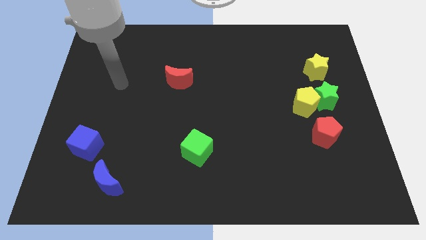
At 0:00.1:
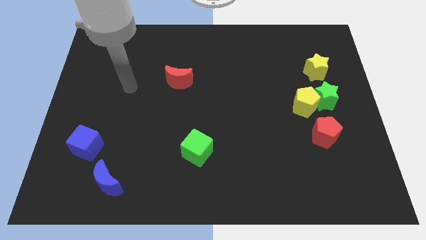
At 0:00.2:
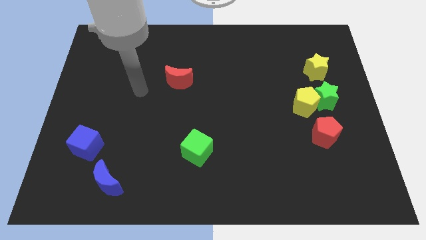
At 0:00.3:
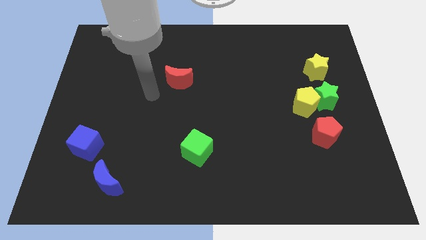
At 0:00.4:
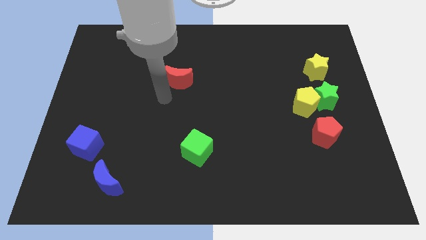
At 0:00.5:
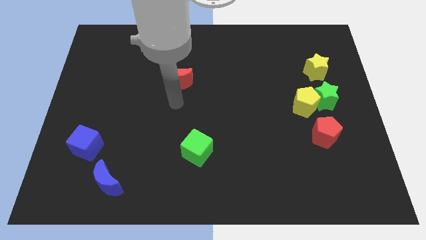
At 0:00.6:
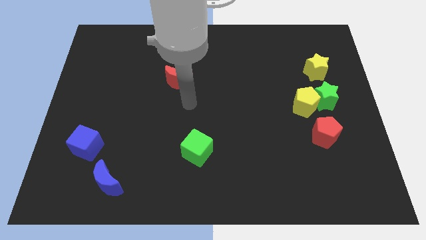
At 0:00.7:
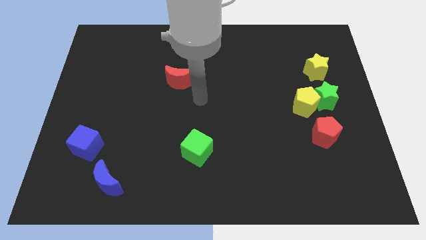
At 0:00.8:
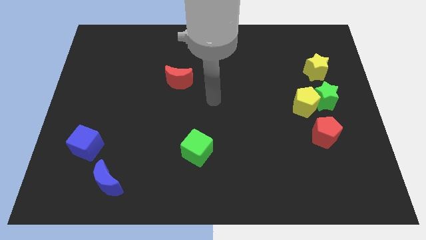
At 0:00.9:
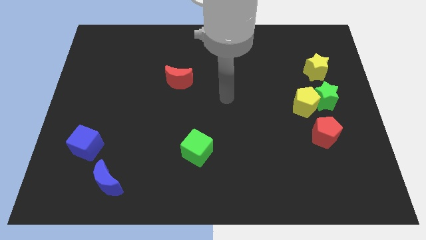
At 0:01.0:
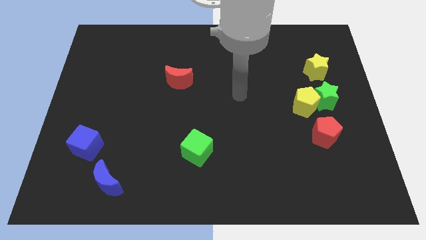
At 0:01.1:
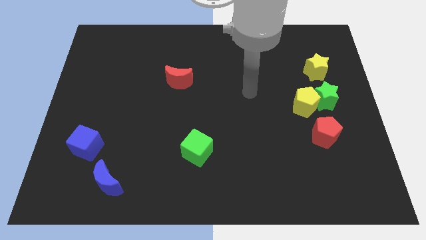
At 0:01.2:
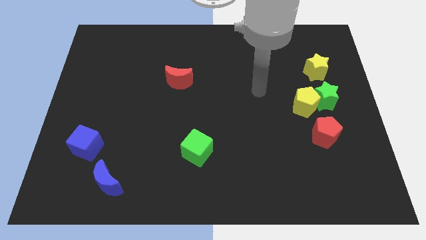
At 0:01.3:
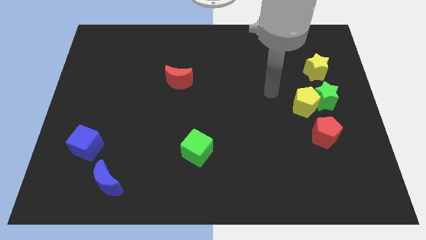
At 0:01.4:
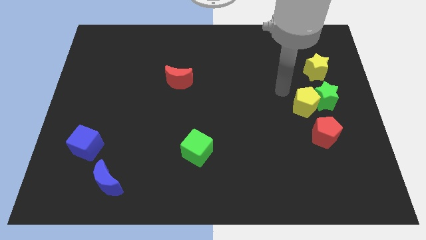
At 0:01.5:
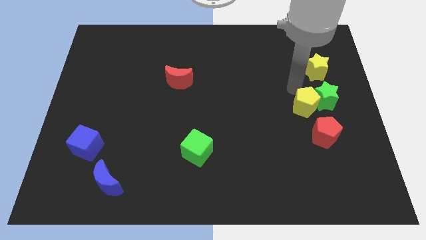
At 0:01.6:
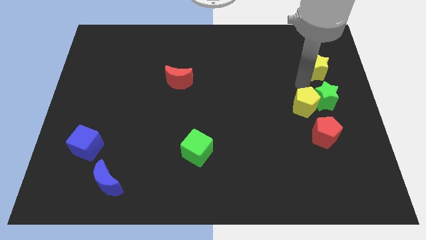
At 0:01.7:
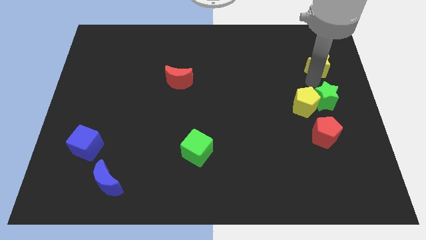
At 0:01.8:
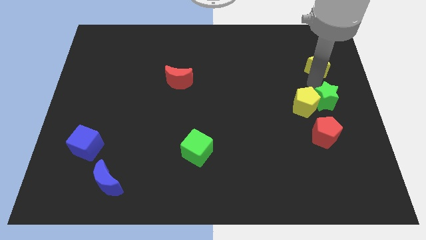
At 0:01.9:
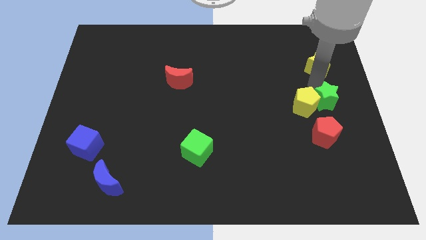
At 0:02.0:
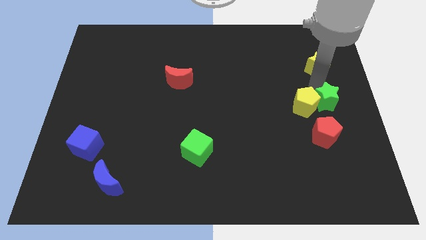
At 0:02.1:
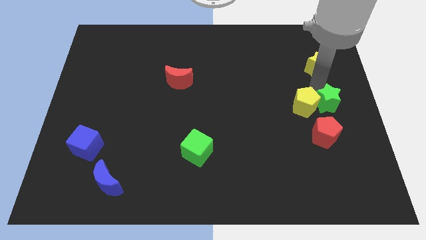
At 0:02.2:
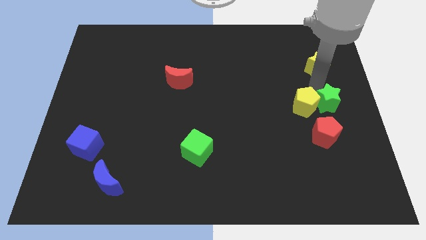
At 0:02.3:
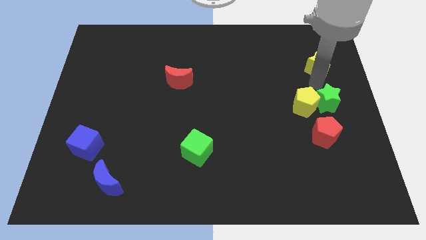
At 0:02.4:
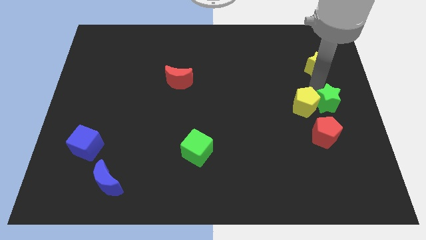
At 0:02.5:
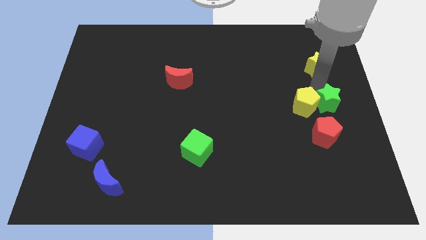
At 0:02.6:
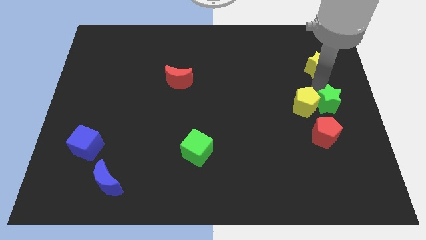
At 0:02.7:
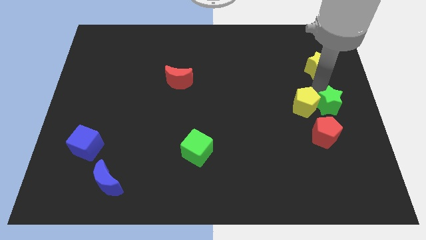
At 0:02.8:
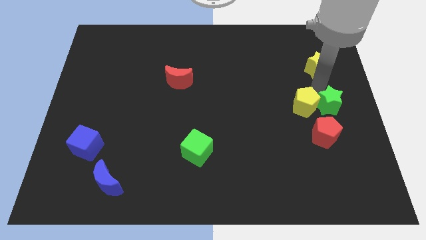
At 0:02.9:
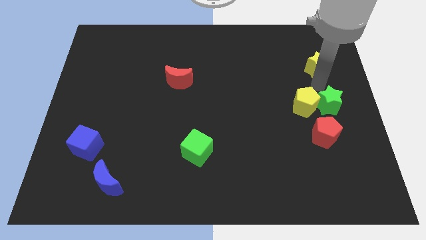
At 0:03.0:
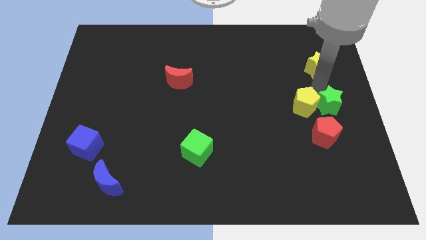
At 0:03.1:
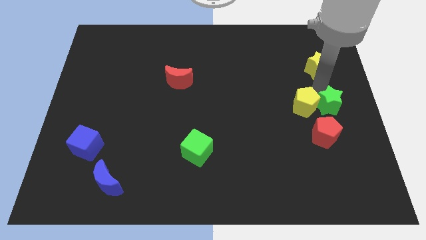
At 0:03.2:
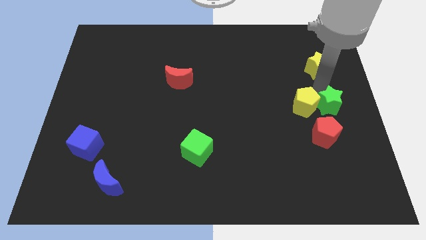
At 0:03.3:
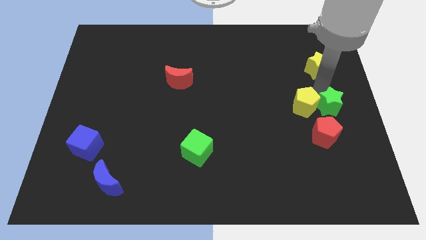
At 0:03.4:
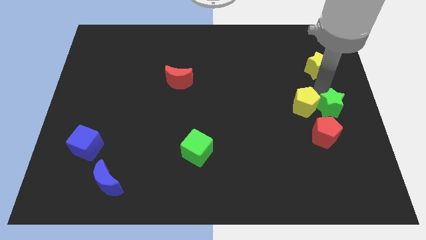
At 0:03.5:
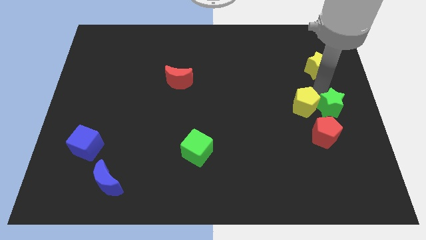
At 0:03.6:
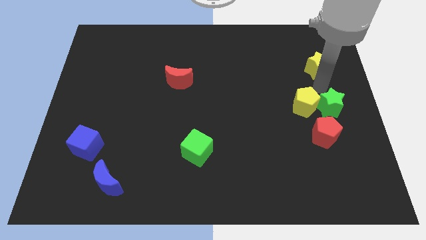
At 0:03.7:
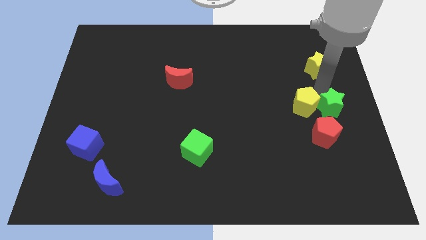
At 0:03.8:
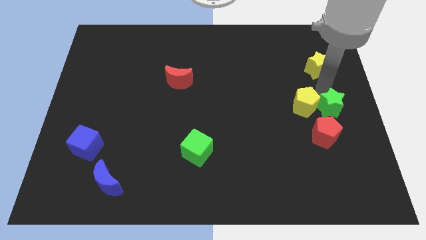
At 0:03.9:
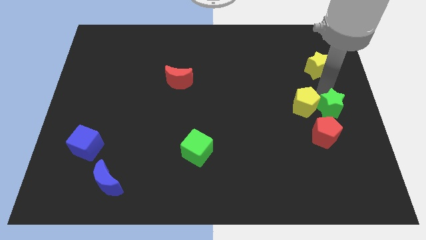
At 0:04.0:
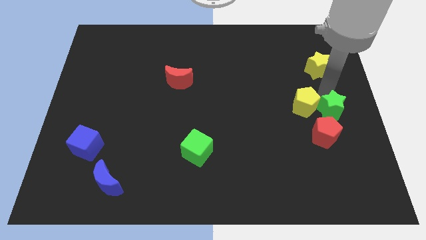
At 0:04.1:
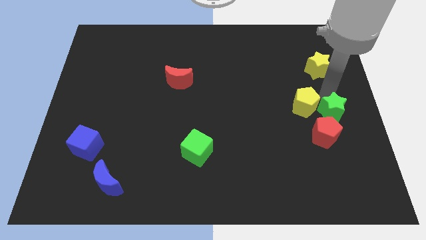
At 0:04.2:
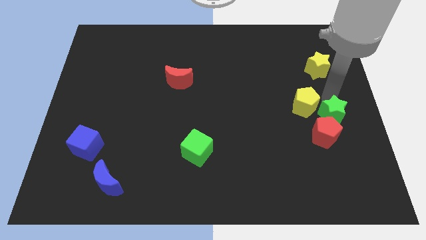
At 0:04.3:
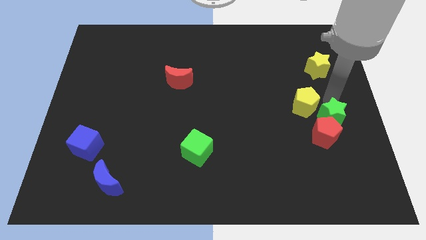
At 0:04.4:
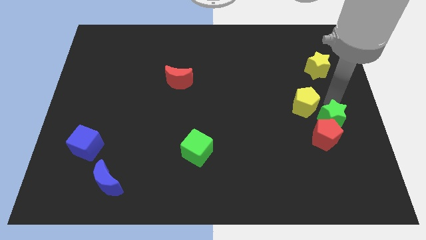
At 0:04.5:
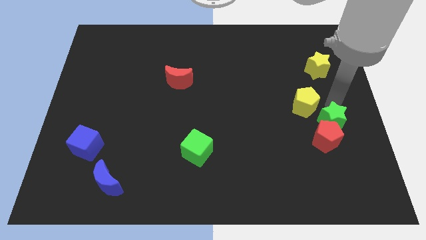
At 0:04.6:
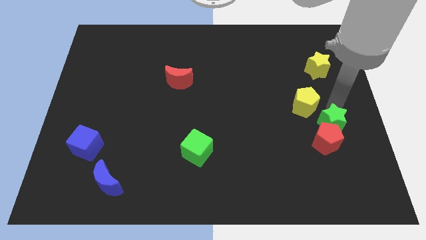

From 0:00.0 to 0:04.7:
push the green star down somewhat

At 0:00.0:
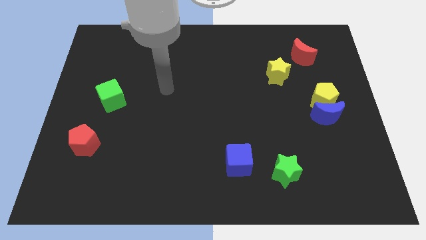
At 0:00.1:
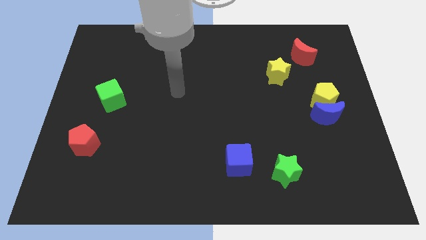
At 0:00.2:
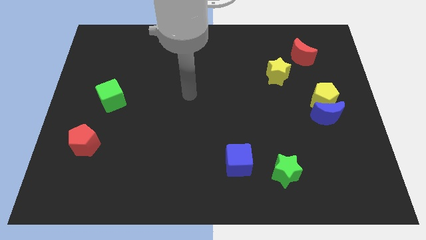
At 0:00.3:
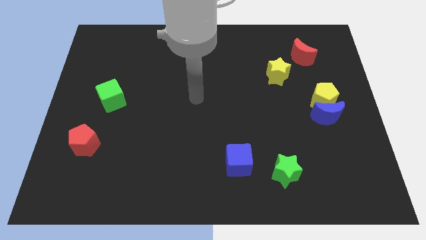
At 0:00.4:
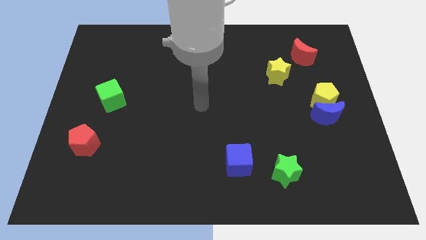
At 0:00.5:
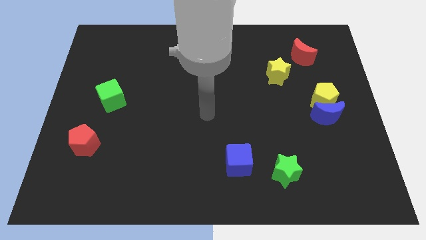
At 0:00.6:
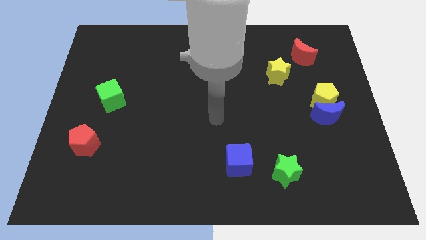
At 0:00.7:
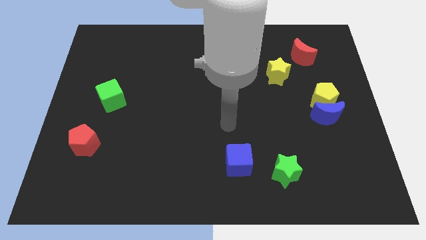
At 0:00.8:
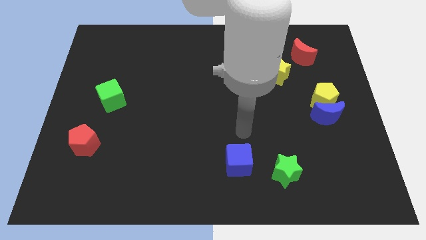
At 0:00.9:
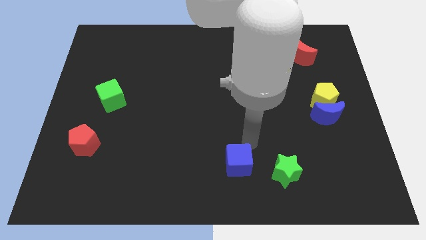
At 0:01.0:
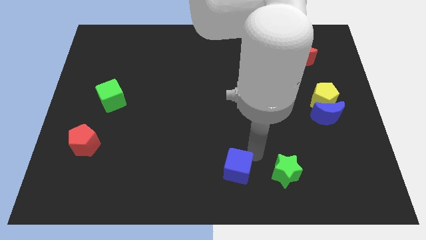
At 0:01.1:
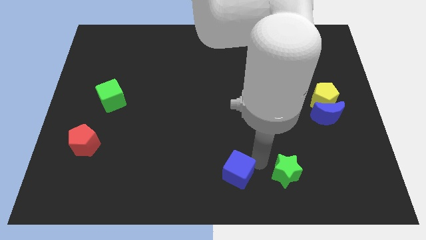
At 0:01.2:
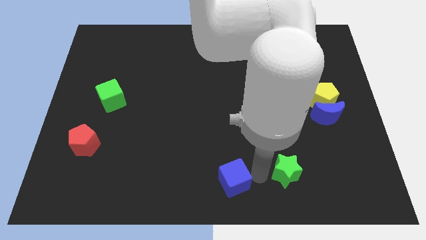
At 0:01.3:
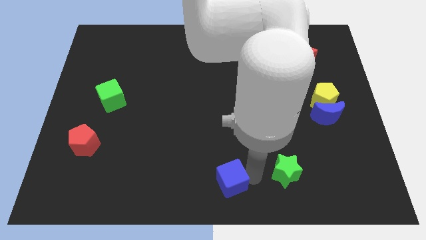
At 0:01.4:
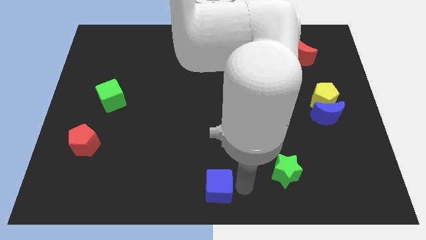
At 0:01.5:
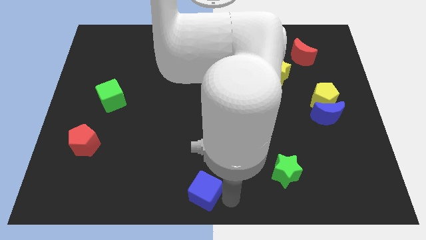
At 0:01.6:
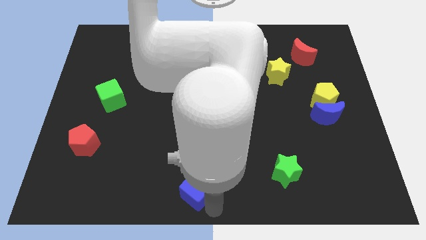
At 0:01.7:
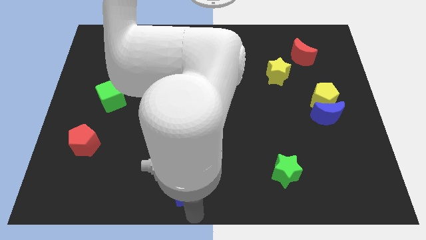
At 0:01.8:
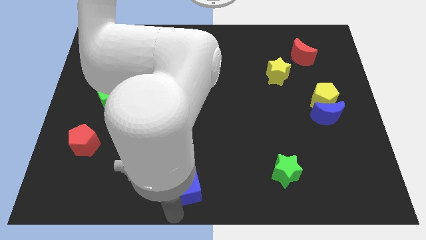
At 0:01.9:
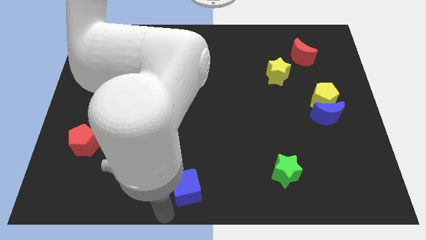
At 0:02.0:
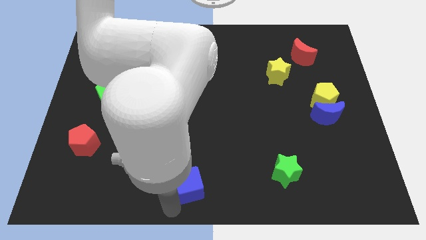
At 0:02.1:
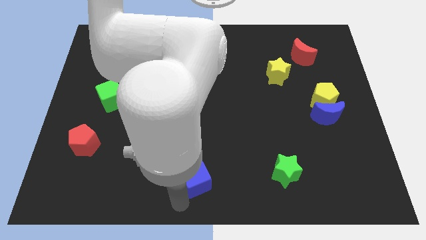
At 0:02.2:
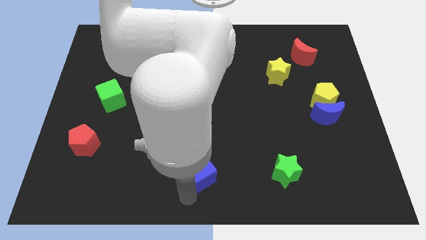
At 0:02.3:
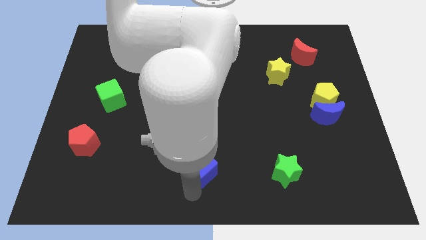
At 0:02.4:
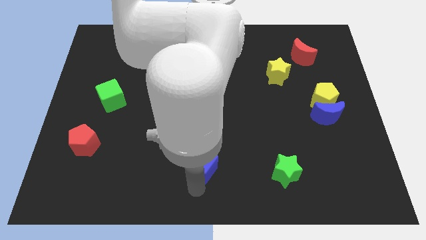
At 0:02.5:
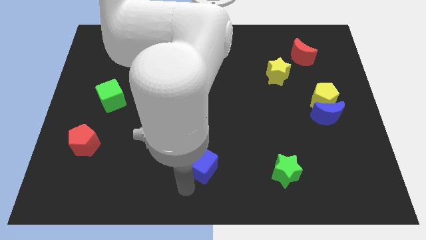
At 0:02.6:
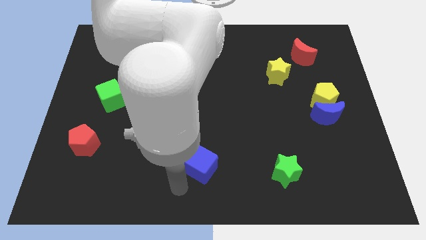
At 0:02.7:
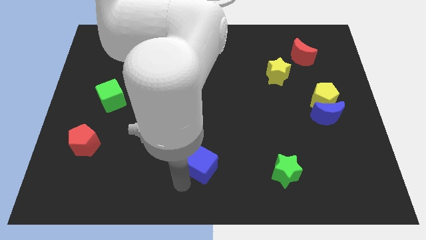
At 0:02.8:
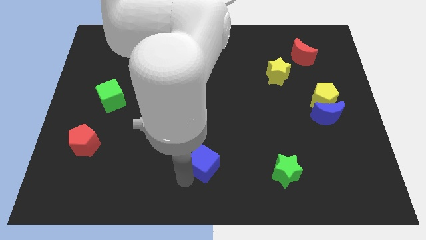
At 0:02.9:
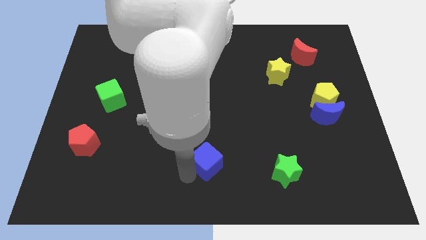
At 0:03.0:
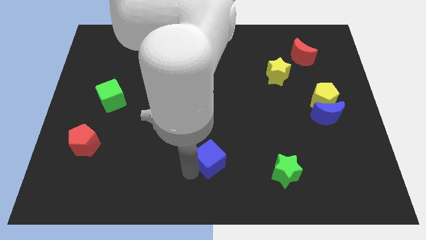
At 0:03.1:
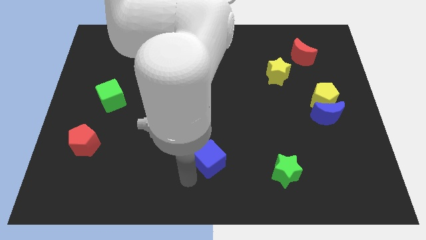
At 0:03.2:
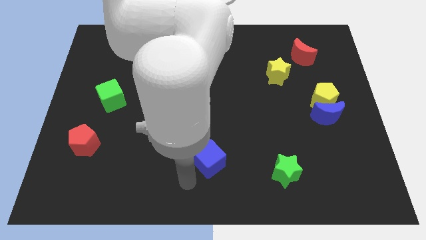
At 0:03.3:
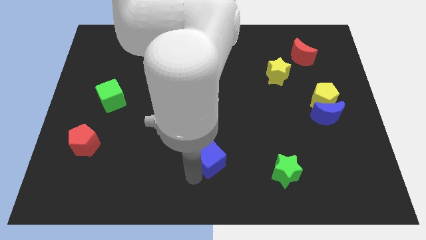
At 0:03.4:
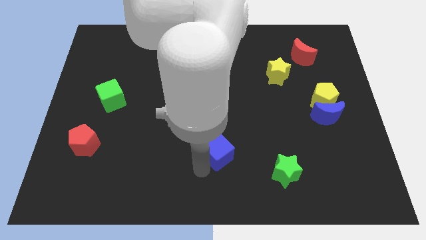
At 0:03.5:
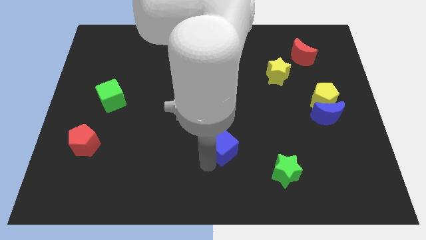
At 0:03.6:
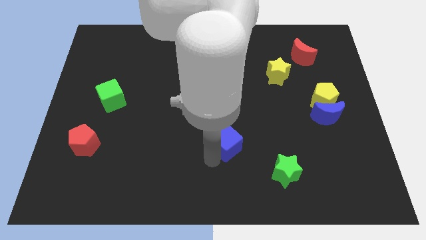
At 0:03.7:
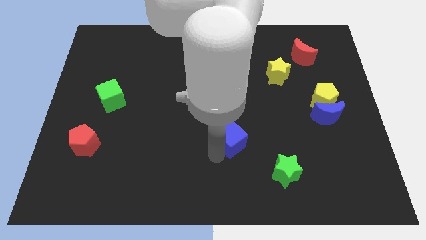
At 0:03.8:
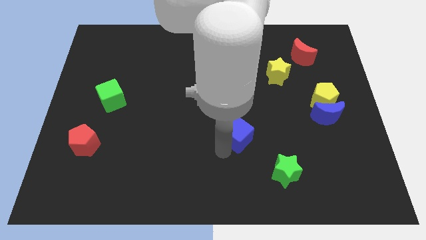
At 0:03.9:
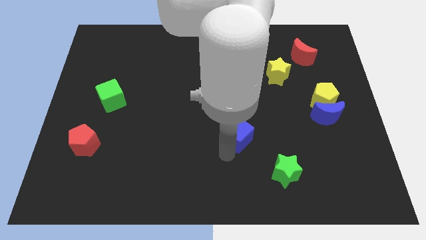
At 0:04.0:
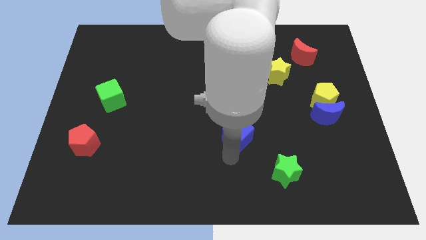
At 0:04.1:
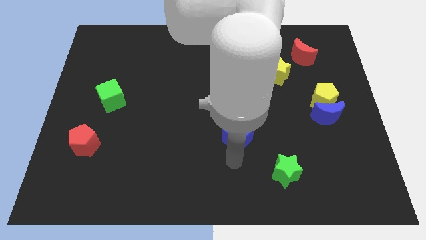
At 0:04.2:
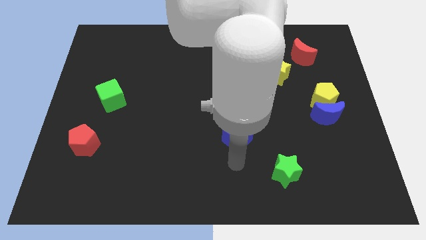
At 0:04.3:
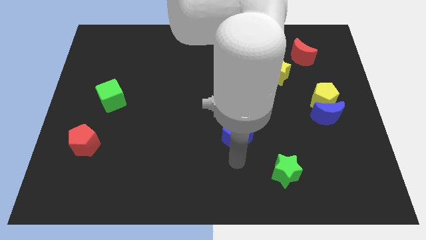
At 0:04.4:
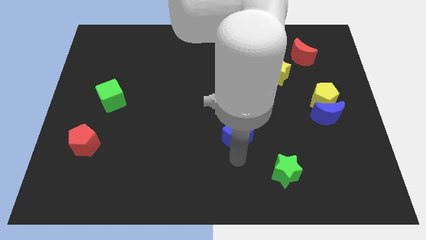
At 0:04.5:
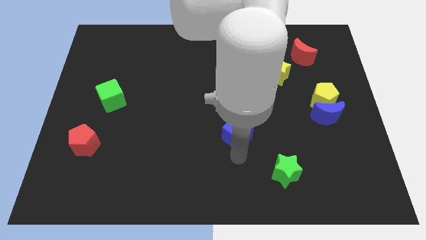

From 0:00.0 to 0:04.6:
slightly push the blue cube upwards
